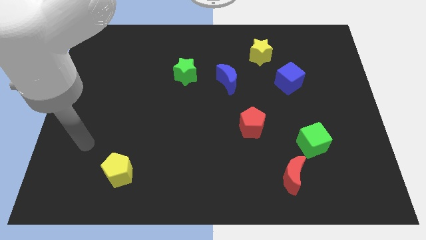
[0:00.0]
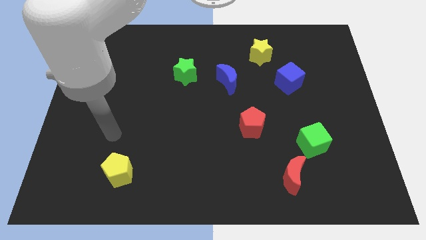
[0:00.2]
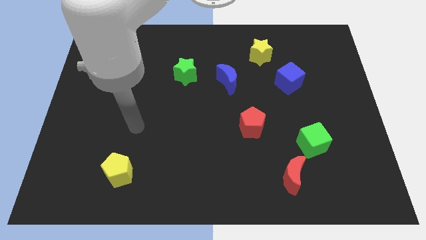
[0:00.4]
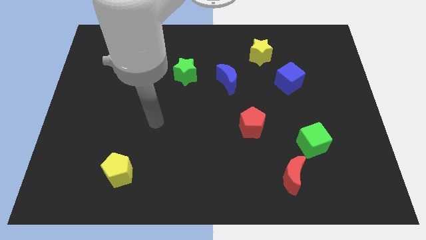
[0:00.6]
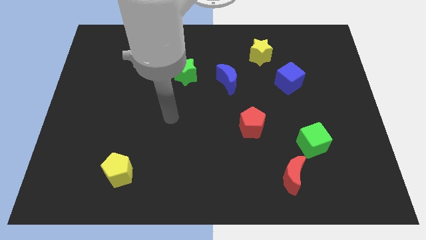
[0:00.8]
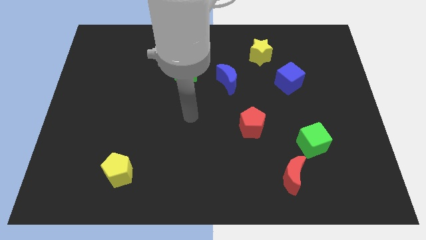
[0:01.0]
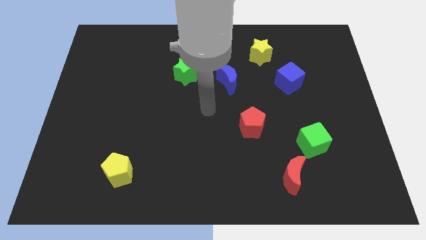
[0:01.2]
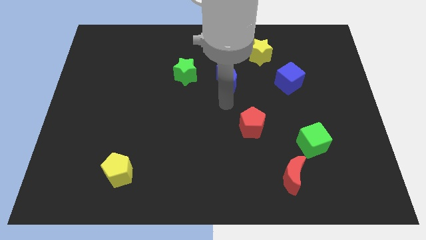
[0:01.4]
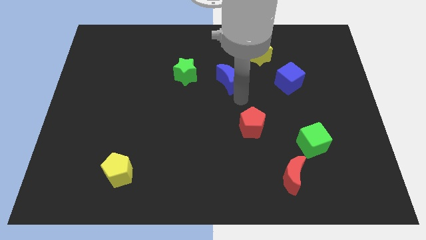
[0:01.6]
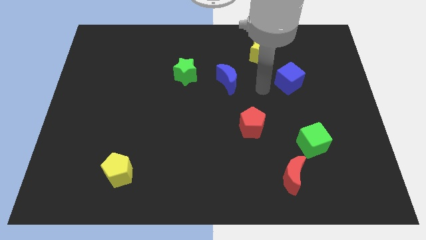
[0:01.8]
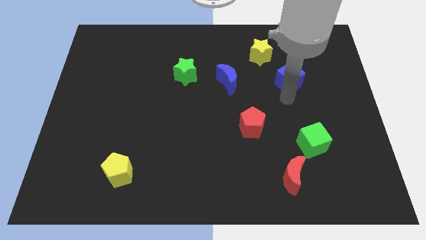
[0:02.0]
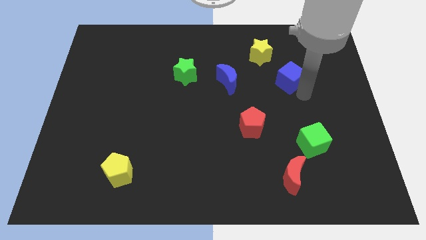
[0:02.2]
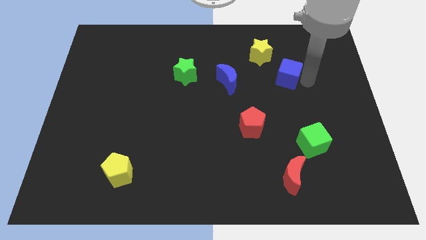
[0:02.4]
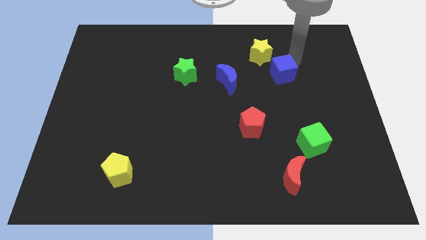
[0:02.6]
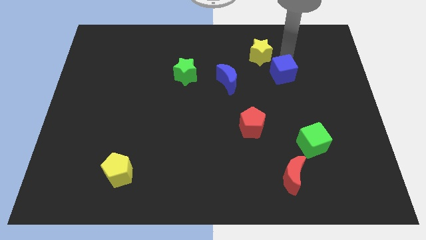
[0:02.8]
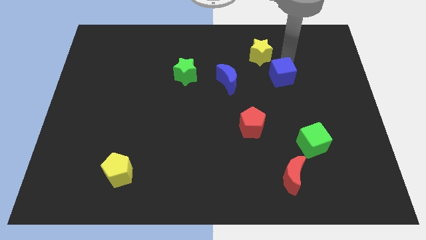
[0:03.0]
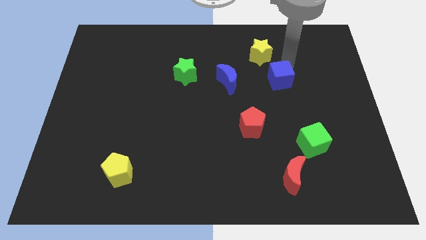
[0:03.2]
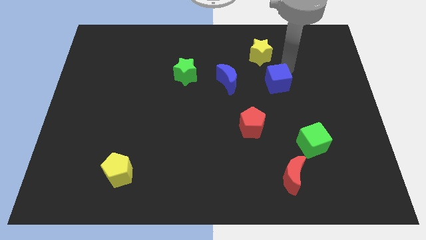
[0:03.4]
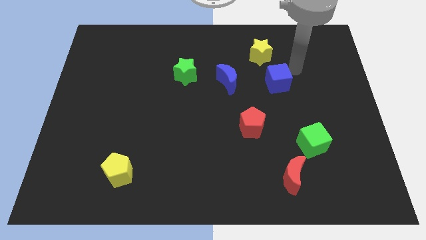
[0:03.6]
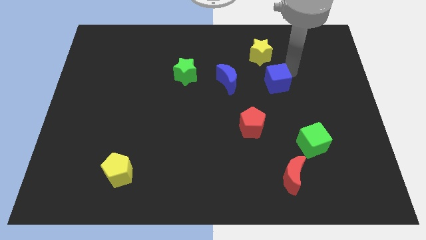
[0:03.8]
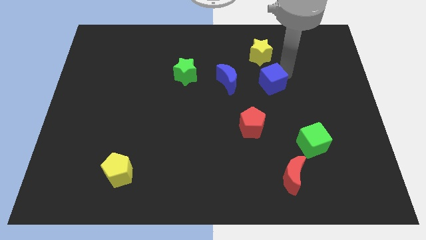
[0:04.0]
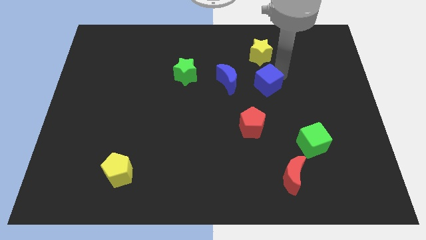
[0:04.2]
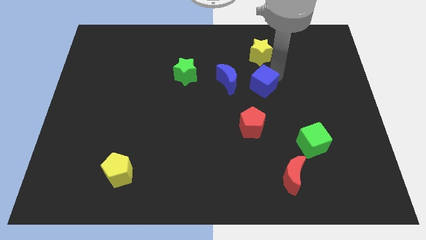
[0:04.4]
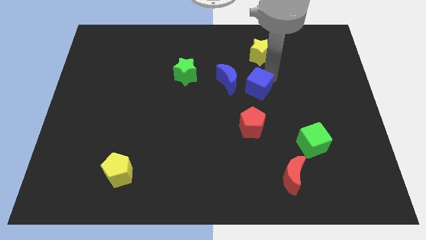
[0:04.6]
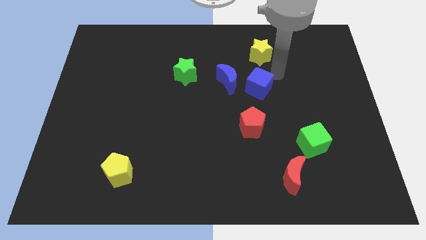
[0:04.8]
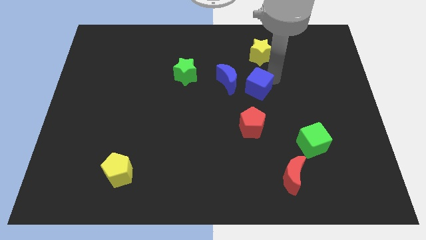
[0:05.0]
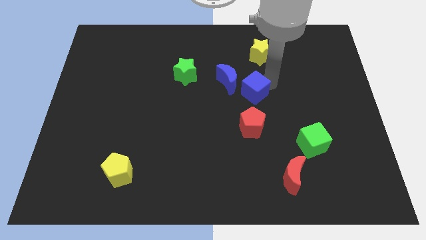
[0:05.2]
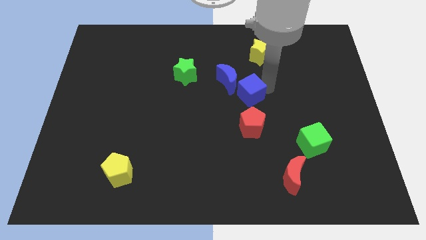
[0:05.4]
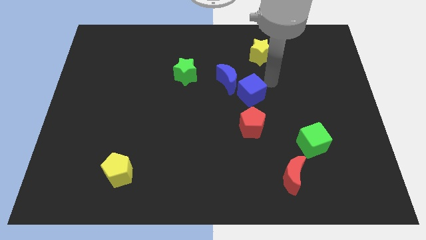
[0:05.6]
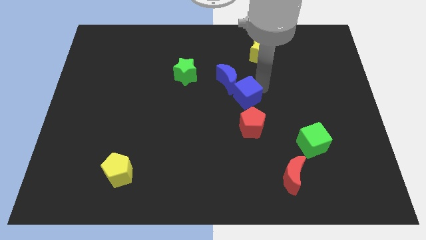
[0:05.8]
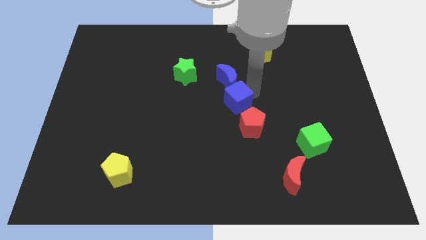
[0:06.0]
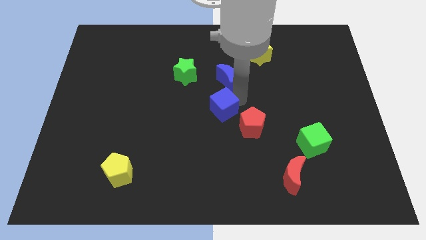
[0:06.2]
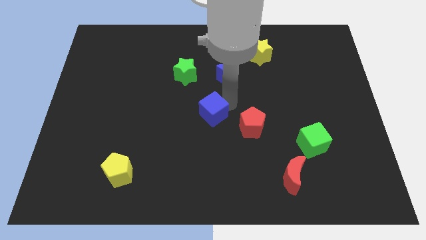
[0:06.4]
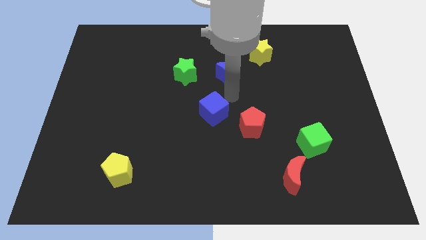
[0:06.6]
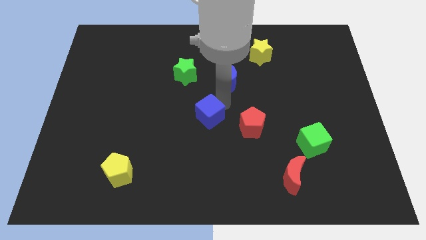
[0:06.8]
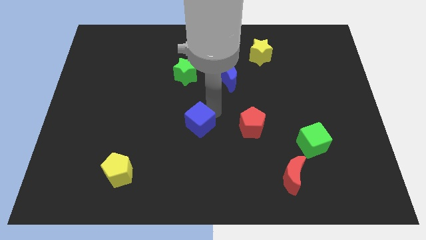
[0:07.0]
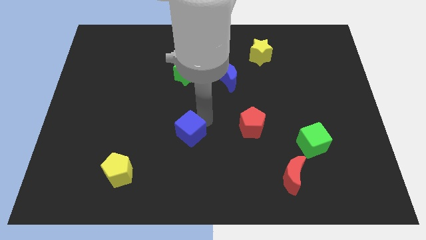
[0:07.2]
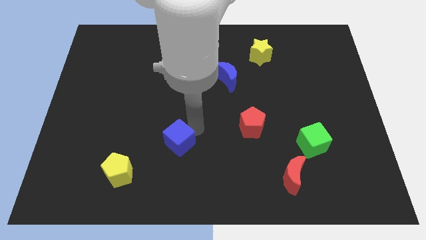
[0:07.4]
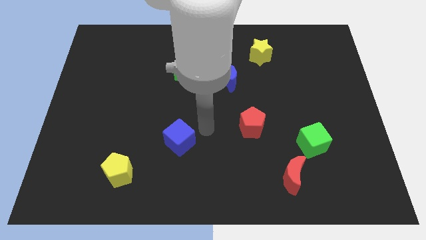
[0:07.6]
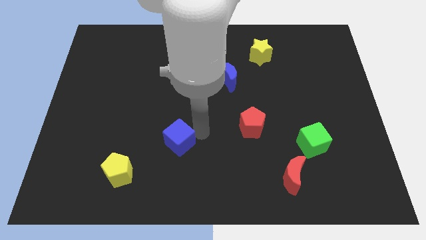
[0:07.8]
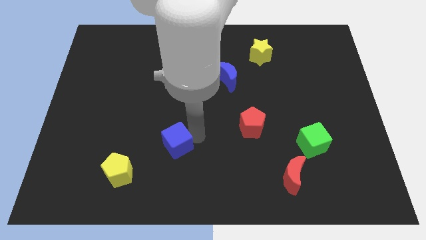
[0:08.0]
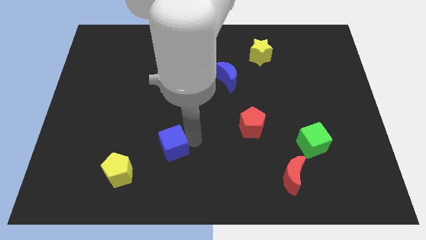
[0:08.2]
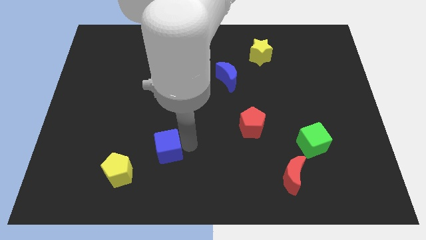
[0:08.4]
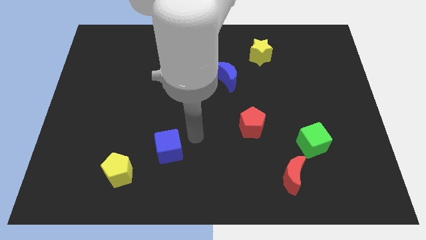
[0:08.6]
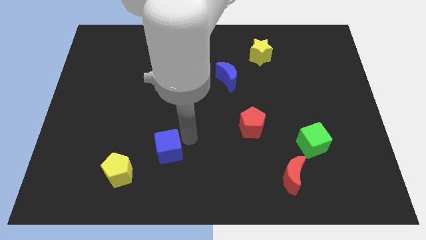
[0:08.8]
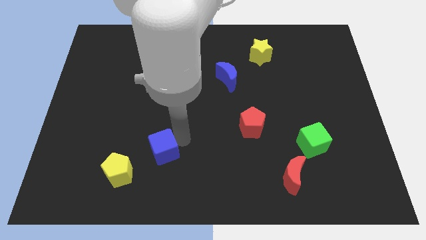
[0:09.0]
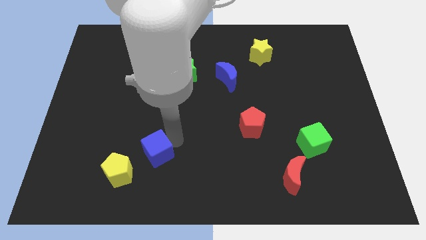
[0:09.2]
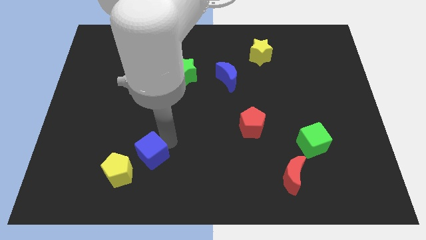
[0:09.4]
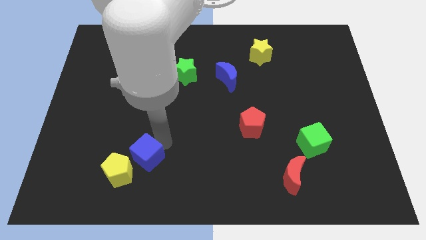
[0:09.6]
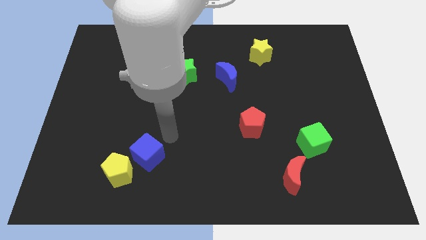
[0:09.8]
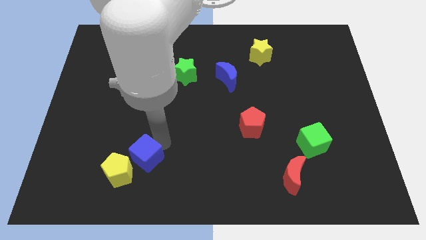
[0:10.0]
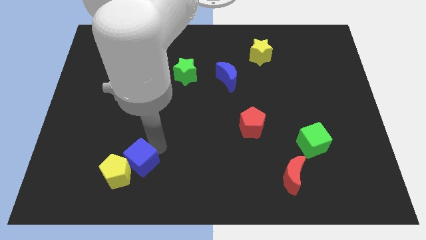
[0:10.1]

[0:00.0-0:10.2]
push the blue cube close to the yellow pentagon

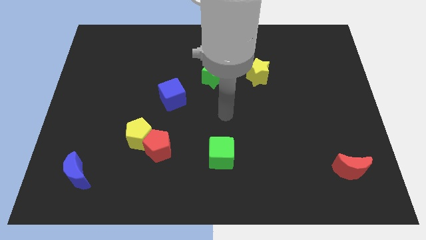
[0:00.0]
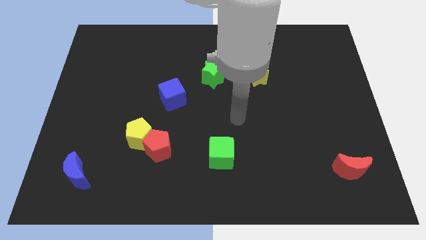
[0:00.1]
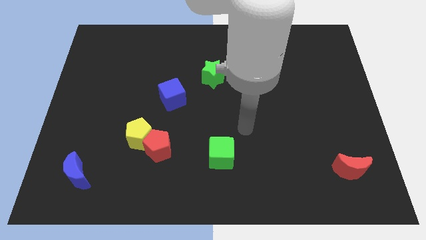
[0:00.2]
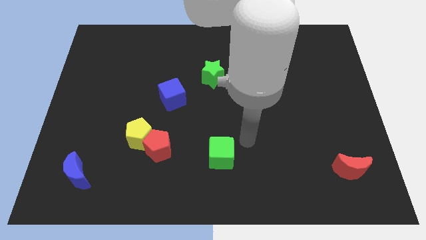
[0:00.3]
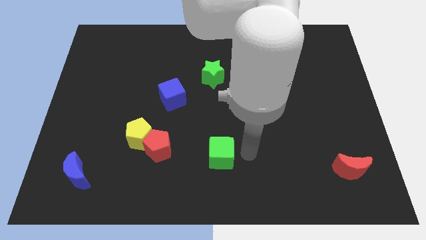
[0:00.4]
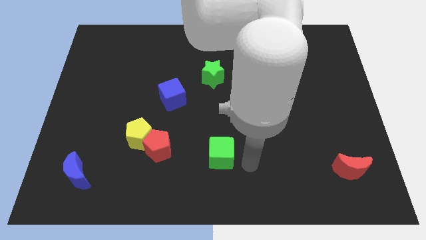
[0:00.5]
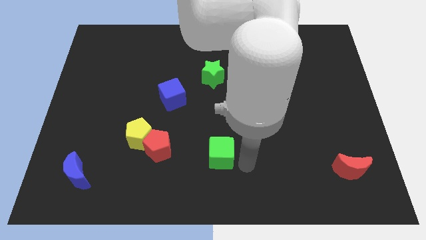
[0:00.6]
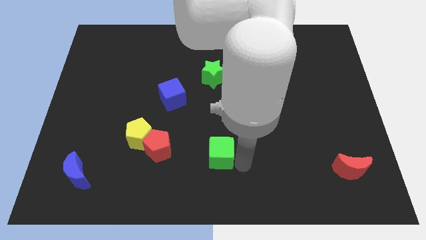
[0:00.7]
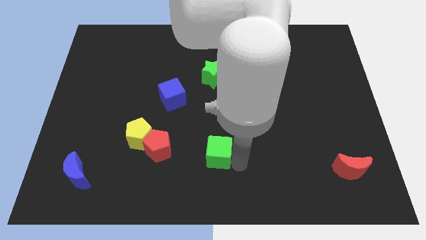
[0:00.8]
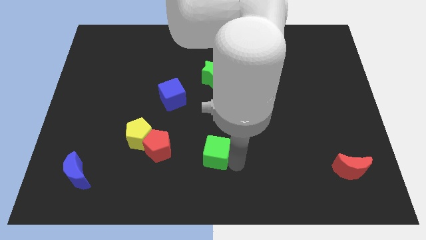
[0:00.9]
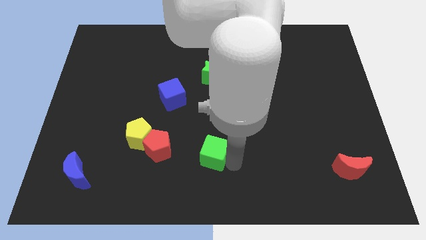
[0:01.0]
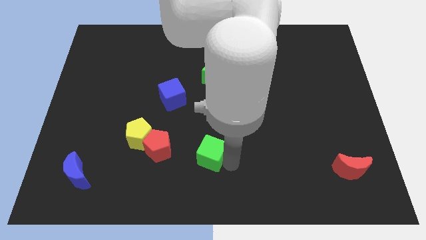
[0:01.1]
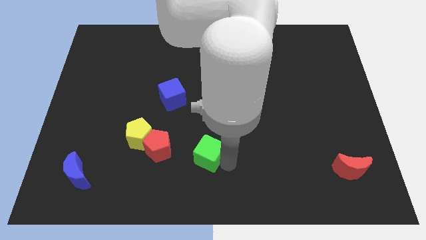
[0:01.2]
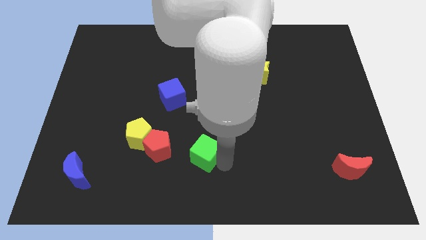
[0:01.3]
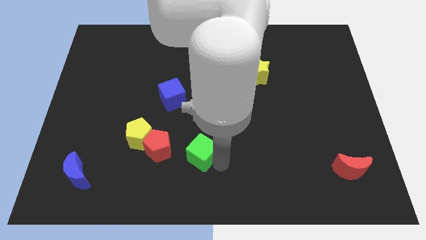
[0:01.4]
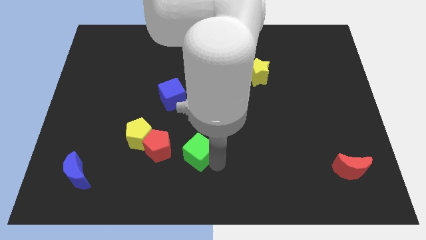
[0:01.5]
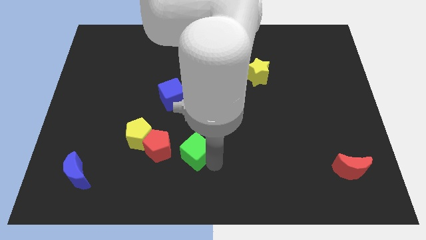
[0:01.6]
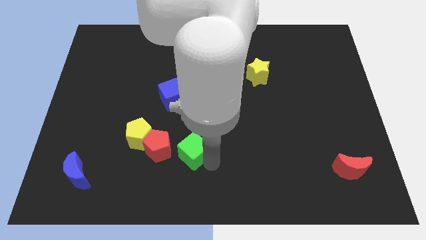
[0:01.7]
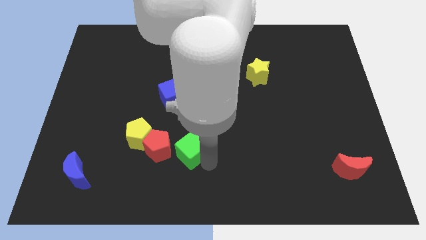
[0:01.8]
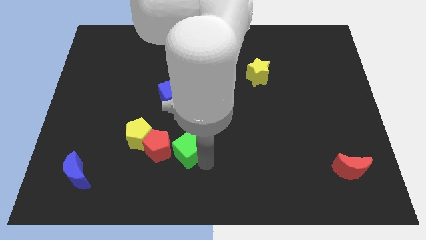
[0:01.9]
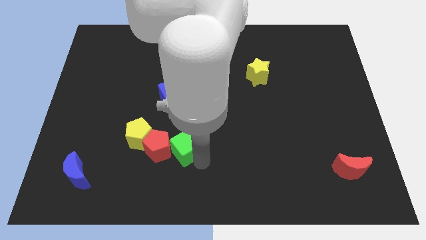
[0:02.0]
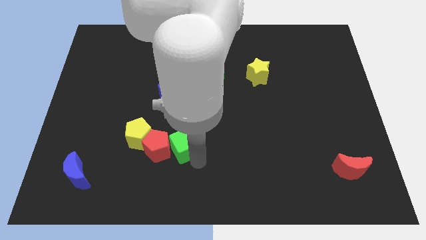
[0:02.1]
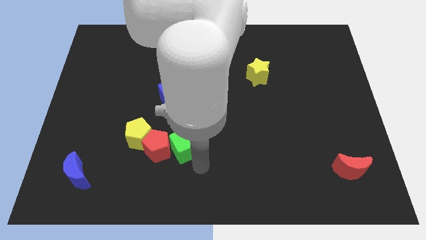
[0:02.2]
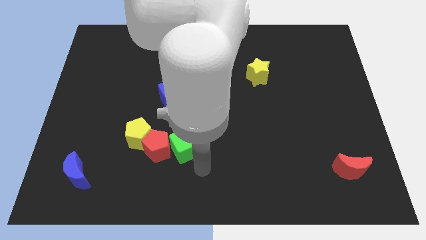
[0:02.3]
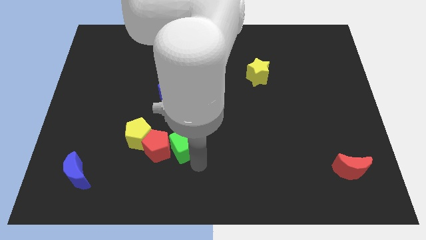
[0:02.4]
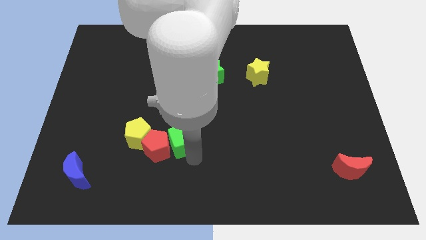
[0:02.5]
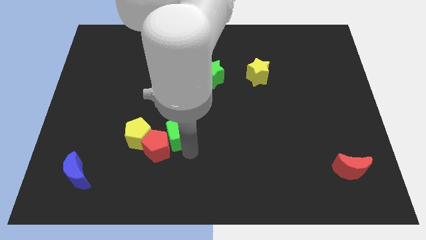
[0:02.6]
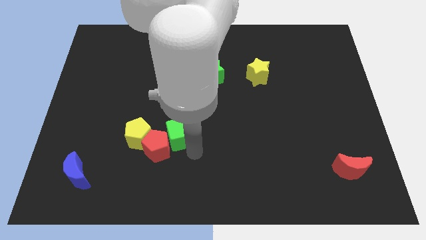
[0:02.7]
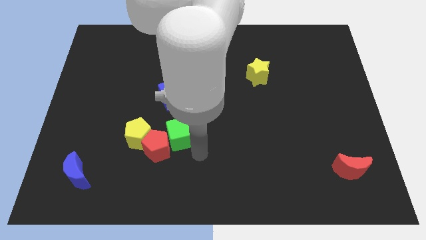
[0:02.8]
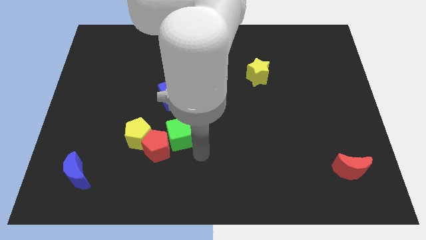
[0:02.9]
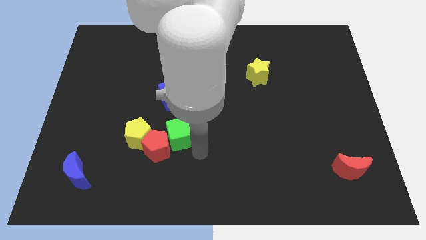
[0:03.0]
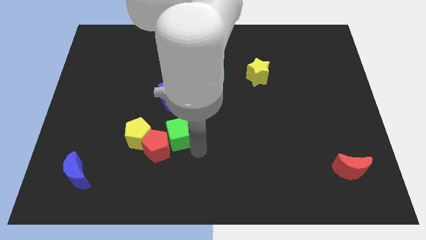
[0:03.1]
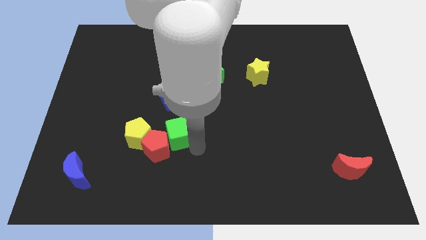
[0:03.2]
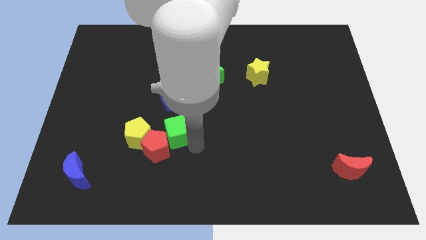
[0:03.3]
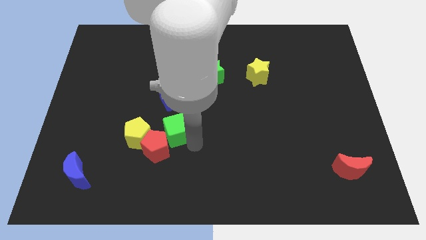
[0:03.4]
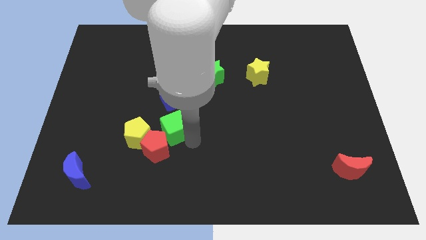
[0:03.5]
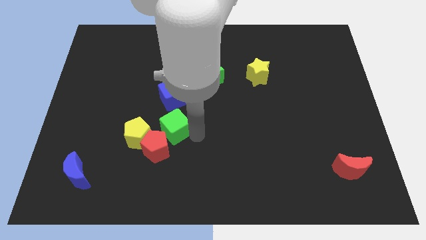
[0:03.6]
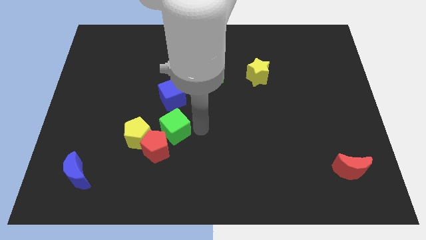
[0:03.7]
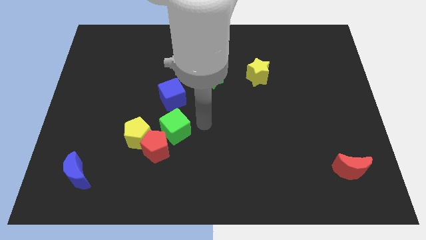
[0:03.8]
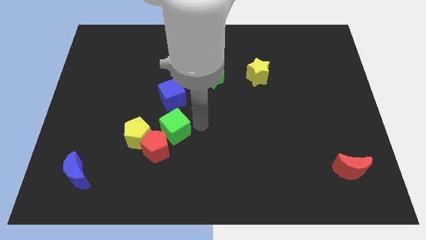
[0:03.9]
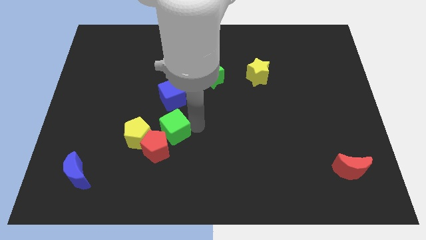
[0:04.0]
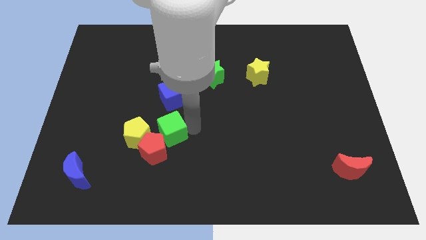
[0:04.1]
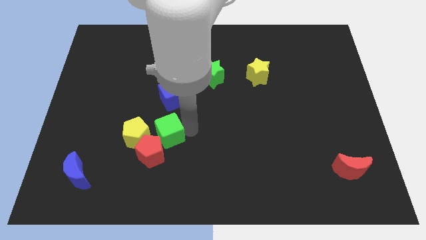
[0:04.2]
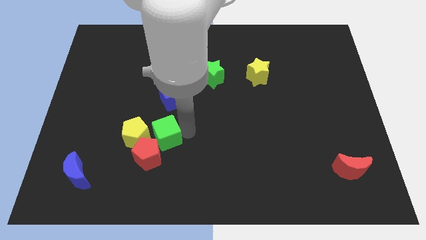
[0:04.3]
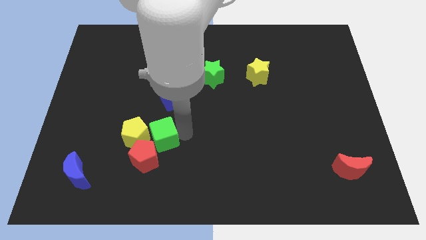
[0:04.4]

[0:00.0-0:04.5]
move the green cube next to the yellow pentagon
